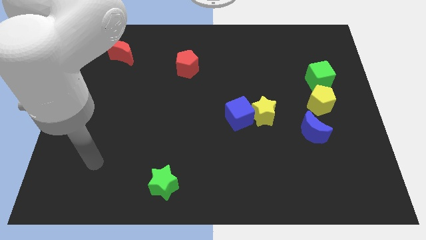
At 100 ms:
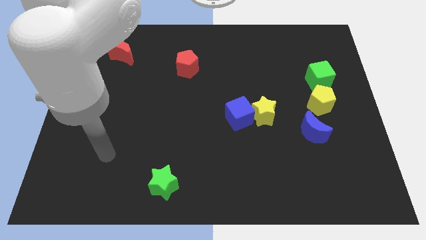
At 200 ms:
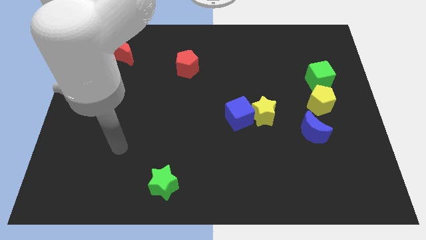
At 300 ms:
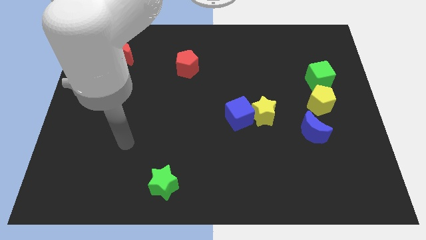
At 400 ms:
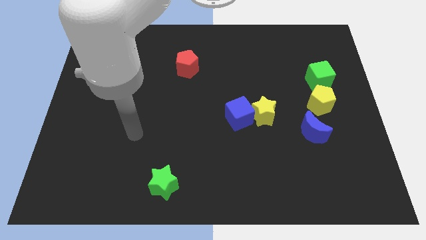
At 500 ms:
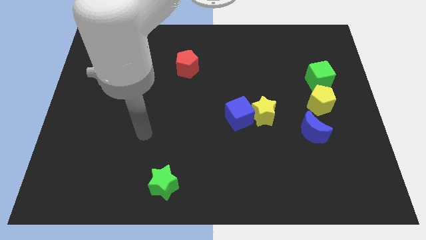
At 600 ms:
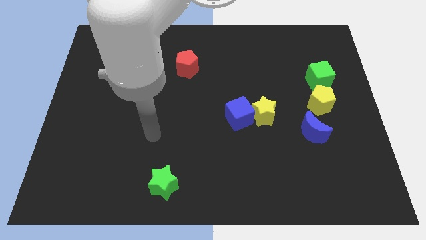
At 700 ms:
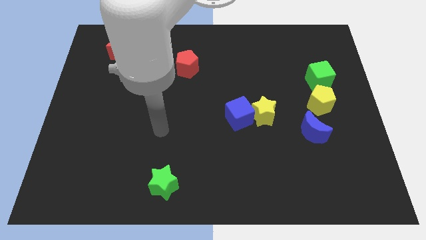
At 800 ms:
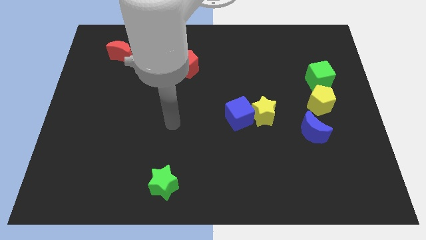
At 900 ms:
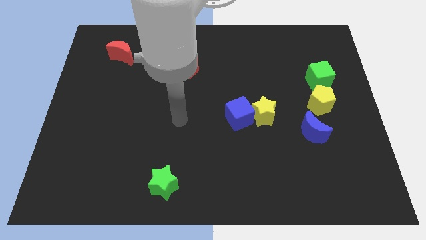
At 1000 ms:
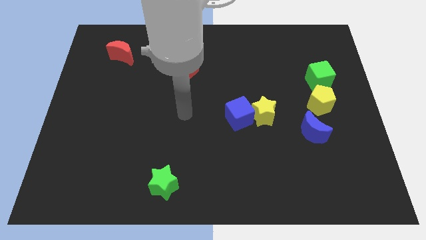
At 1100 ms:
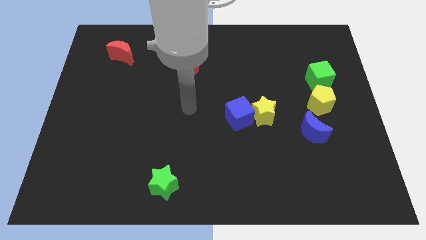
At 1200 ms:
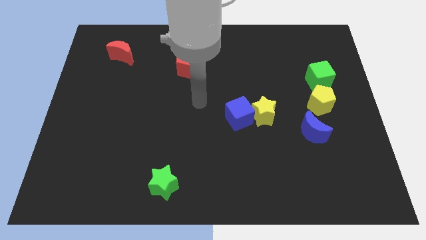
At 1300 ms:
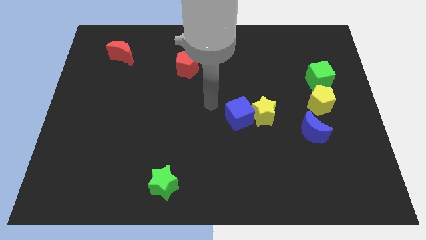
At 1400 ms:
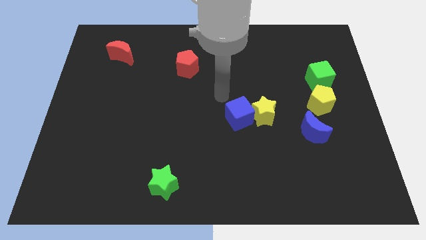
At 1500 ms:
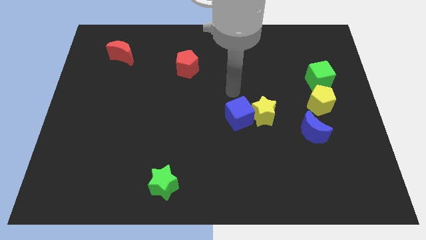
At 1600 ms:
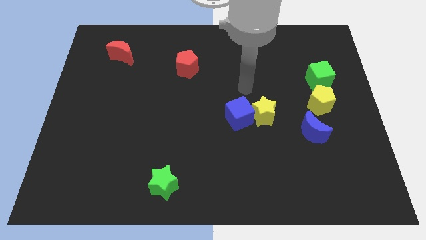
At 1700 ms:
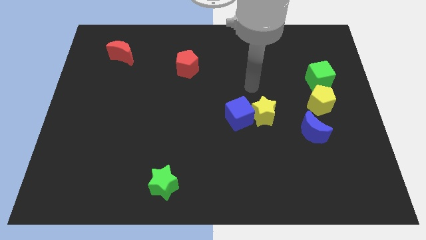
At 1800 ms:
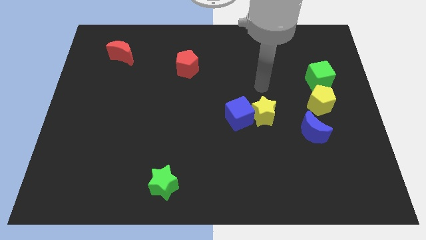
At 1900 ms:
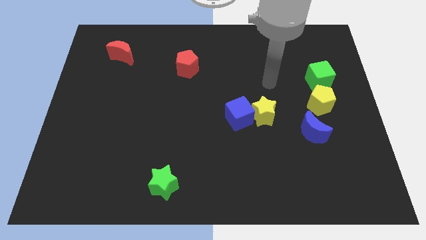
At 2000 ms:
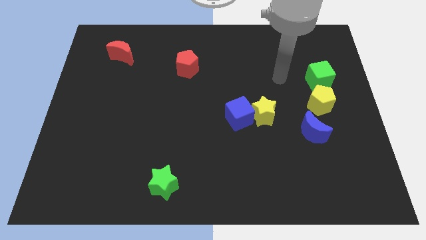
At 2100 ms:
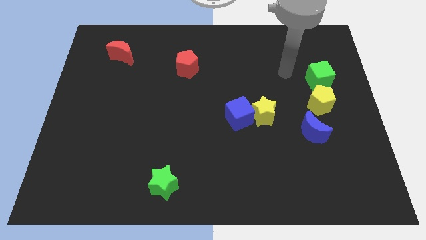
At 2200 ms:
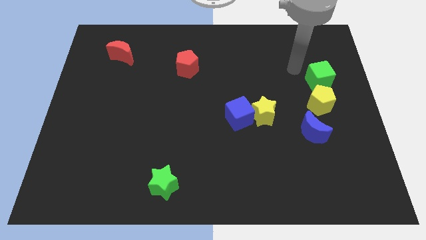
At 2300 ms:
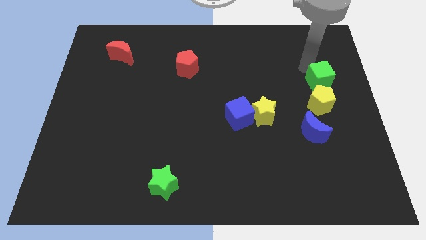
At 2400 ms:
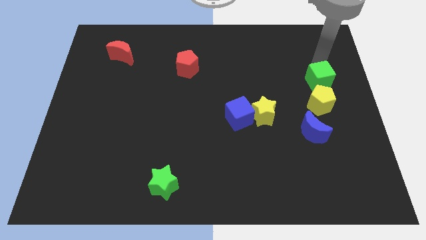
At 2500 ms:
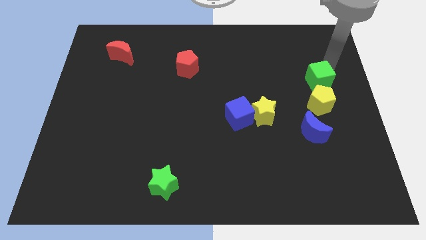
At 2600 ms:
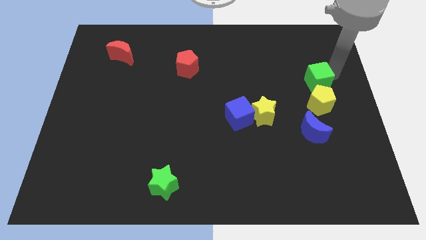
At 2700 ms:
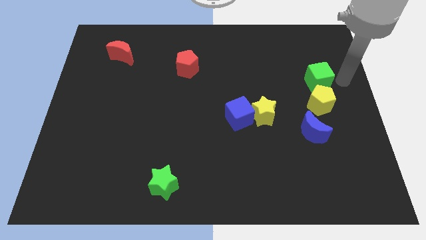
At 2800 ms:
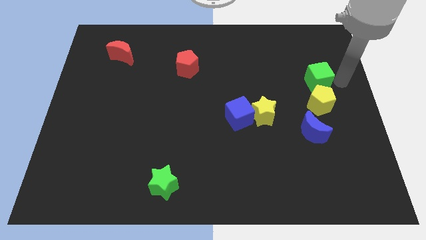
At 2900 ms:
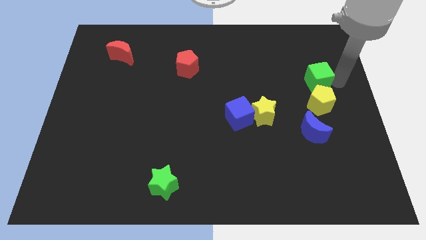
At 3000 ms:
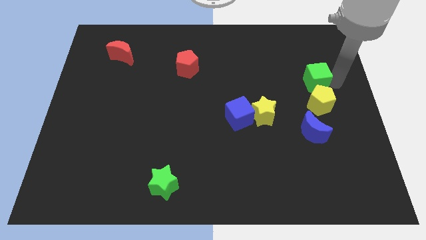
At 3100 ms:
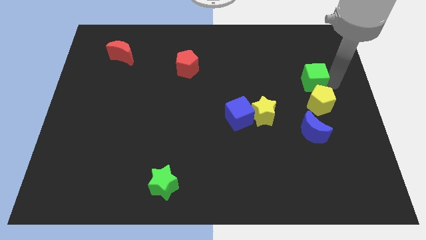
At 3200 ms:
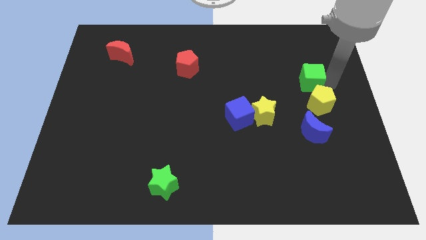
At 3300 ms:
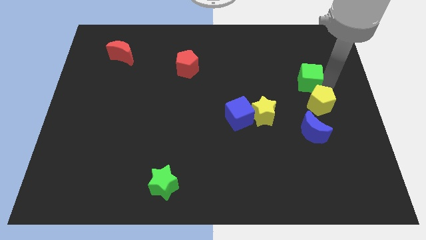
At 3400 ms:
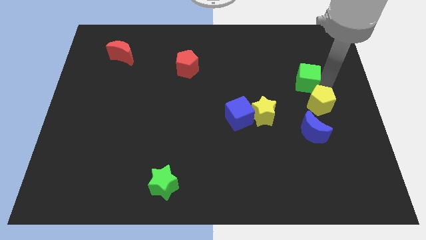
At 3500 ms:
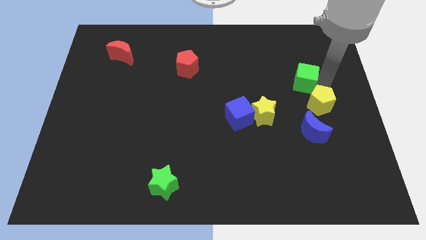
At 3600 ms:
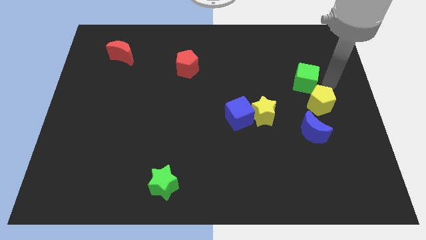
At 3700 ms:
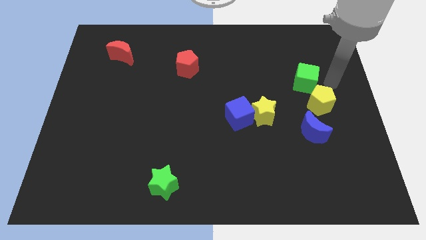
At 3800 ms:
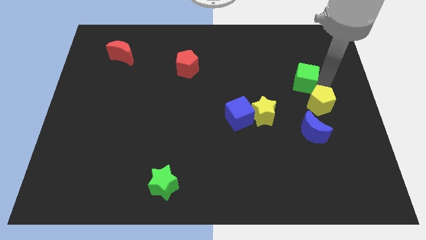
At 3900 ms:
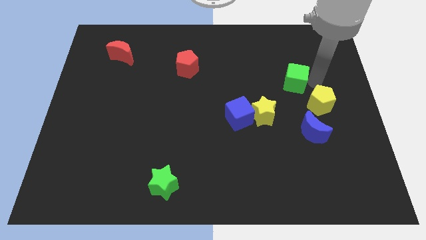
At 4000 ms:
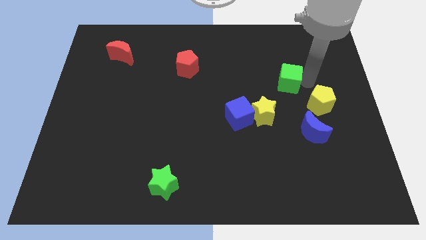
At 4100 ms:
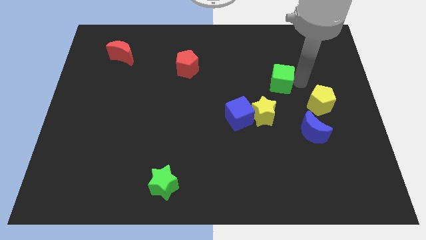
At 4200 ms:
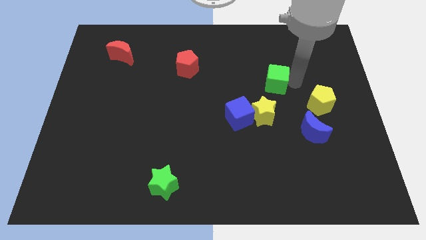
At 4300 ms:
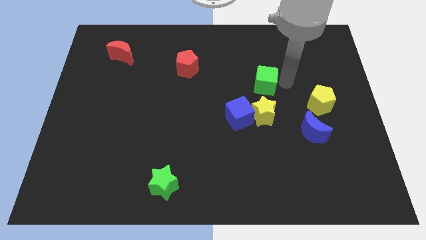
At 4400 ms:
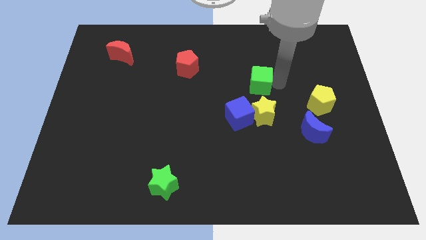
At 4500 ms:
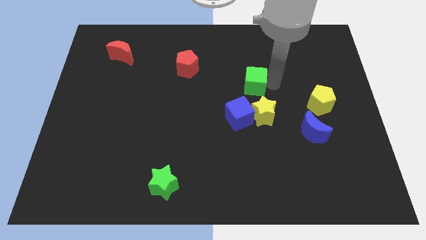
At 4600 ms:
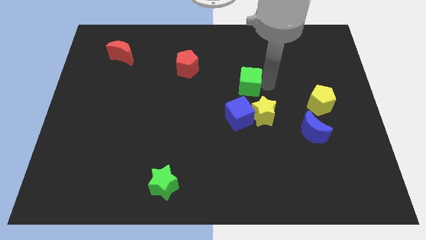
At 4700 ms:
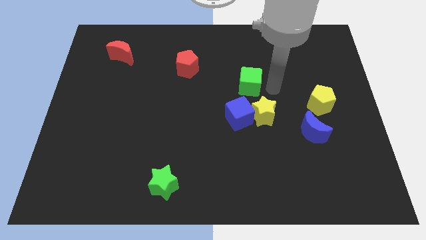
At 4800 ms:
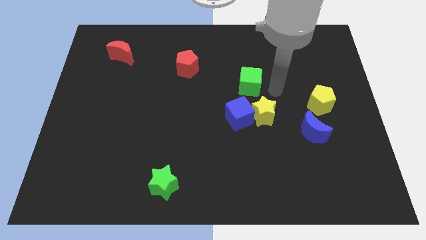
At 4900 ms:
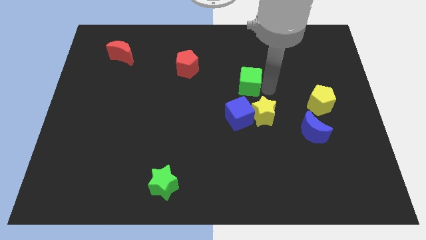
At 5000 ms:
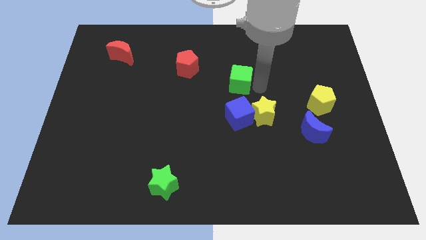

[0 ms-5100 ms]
push the green cube to the left

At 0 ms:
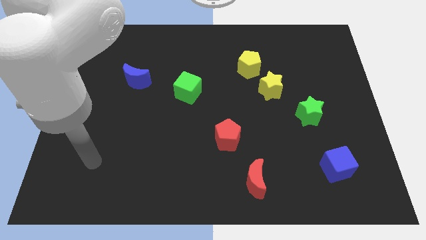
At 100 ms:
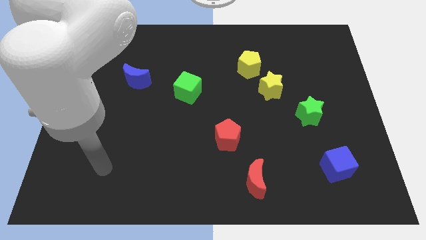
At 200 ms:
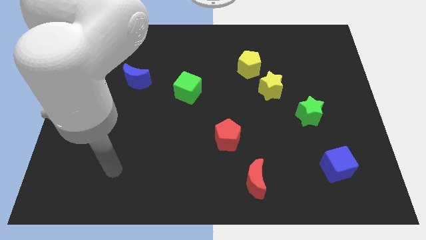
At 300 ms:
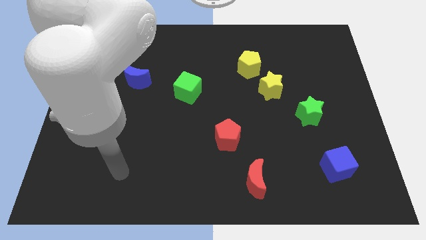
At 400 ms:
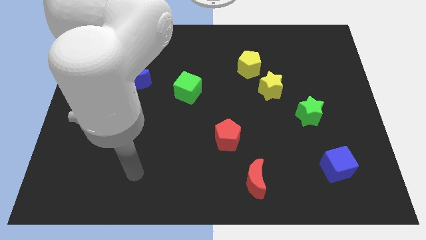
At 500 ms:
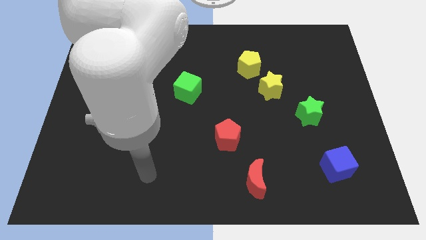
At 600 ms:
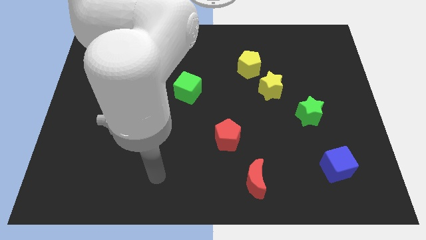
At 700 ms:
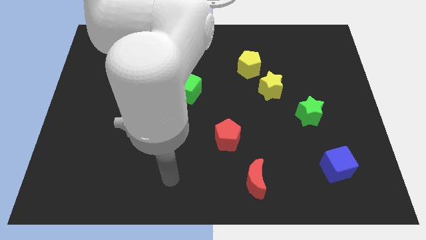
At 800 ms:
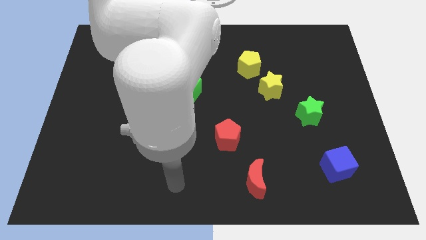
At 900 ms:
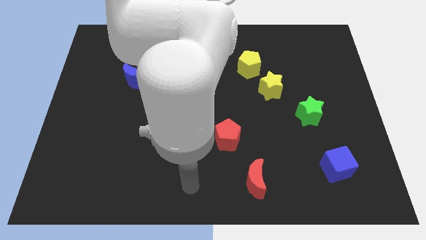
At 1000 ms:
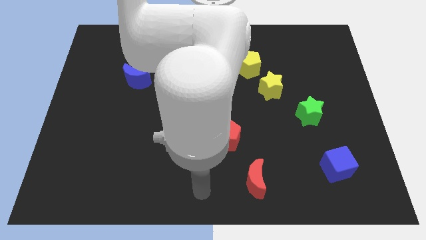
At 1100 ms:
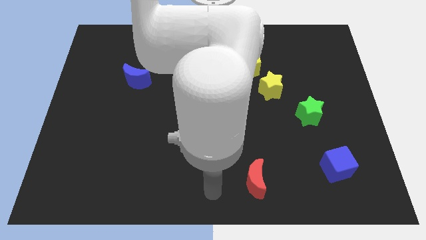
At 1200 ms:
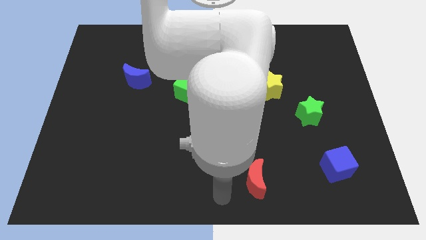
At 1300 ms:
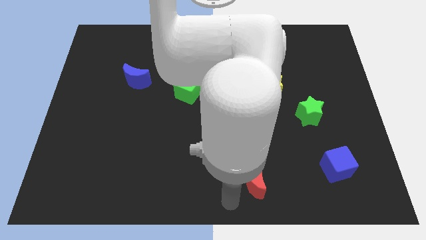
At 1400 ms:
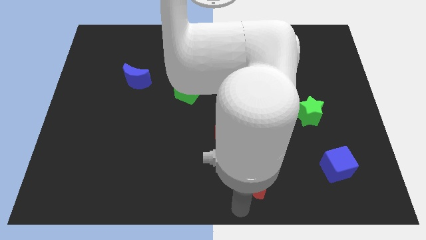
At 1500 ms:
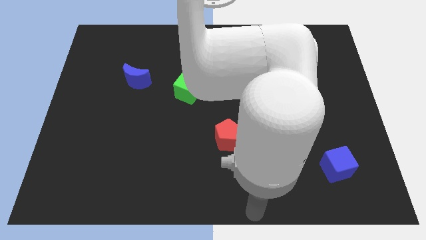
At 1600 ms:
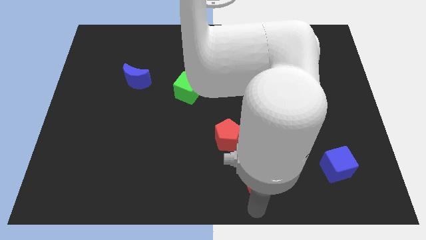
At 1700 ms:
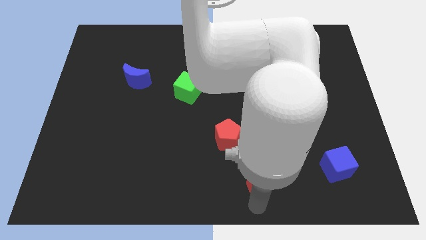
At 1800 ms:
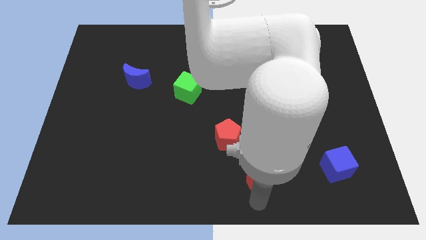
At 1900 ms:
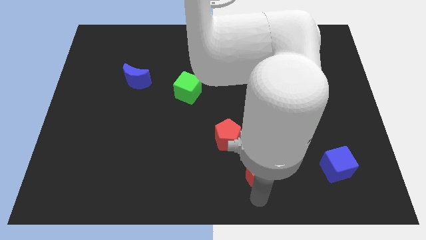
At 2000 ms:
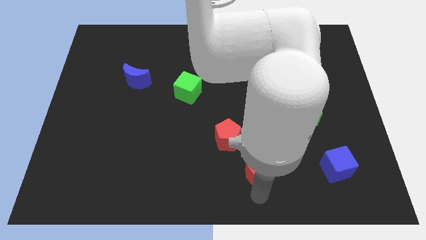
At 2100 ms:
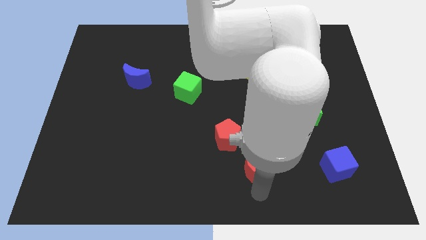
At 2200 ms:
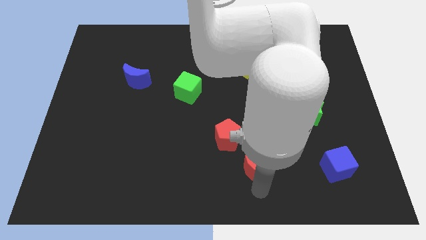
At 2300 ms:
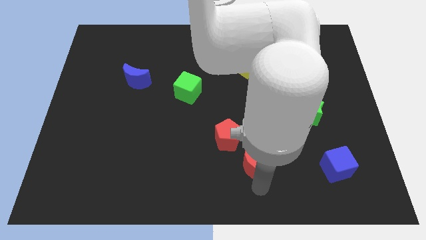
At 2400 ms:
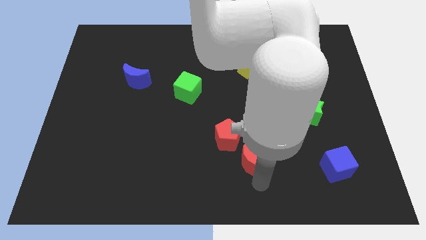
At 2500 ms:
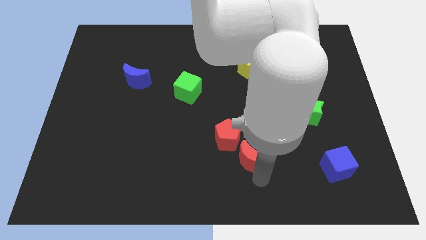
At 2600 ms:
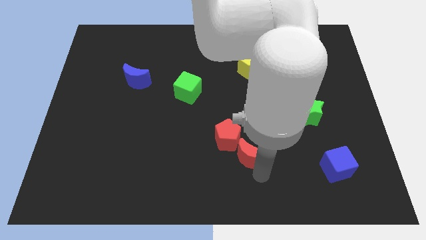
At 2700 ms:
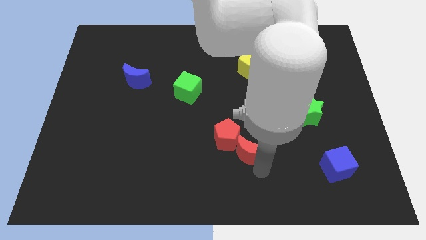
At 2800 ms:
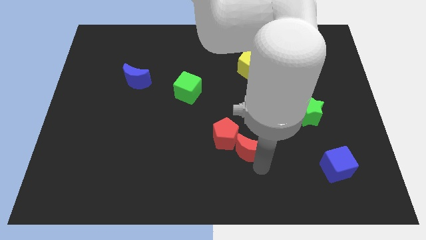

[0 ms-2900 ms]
slightly slide the red moon up

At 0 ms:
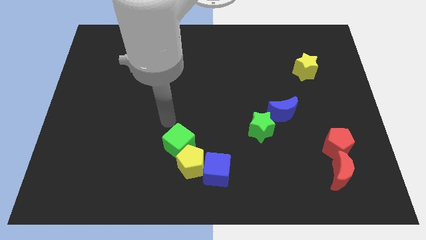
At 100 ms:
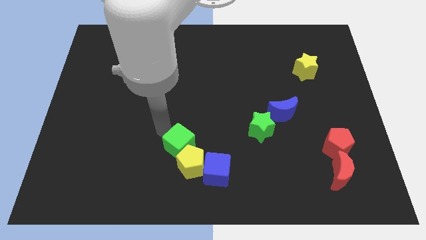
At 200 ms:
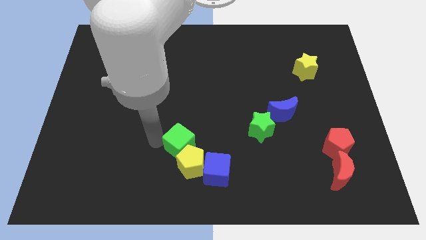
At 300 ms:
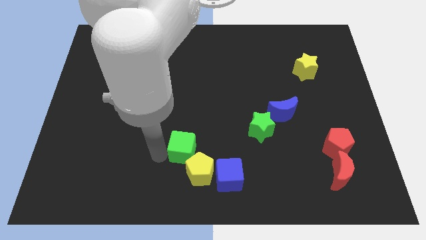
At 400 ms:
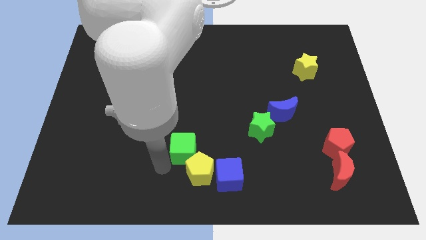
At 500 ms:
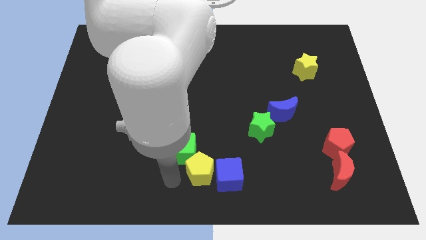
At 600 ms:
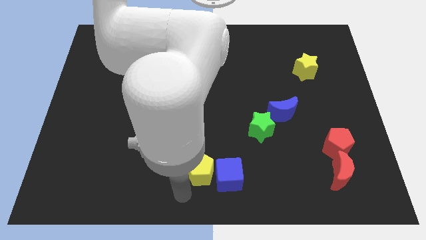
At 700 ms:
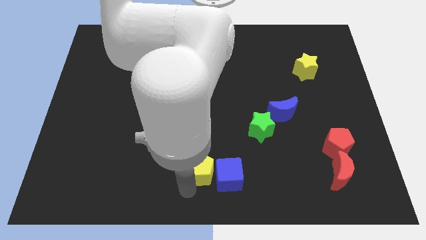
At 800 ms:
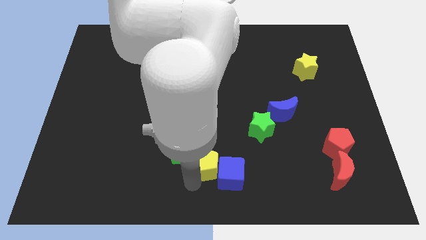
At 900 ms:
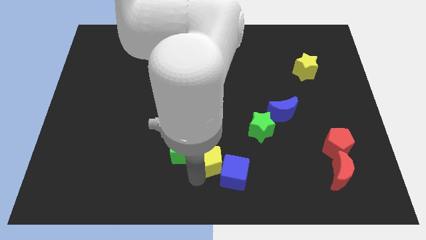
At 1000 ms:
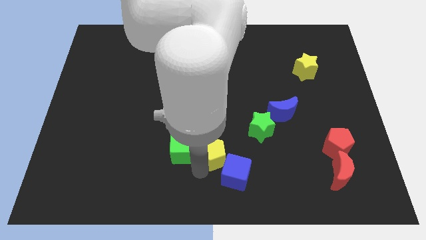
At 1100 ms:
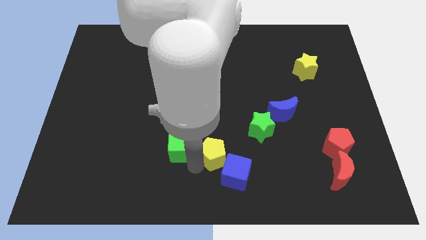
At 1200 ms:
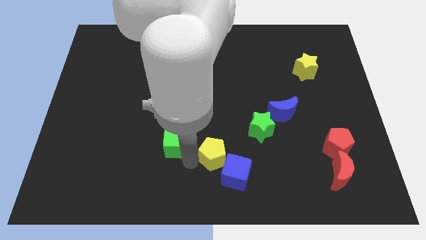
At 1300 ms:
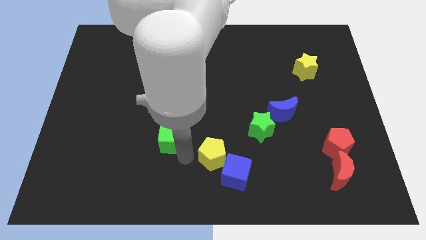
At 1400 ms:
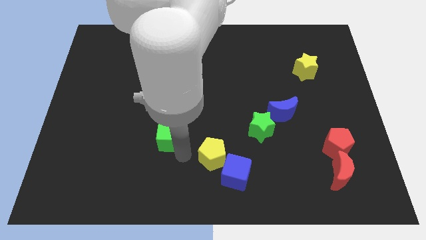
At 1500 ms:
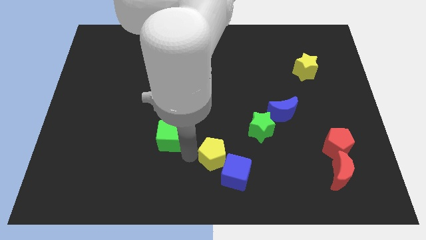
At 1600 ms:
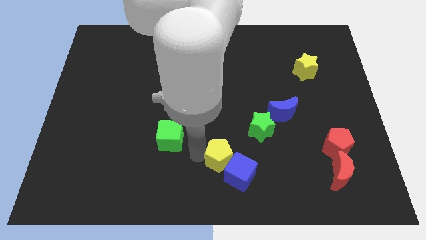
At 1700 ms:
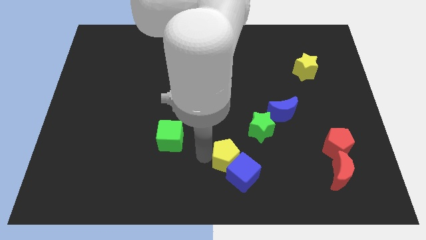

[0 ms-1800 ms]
push the yellow pentagon right a little bit
